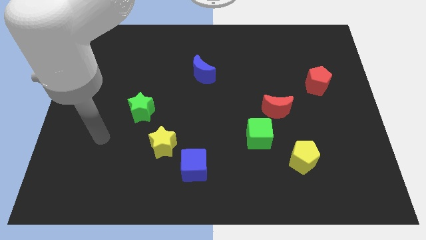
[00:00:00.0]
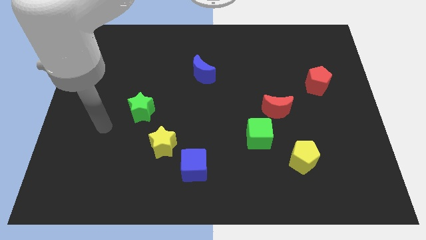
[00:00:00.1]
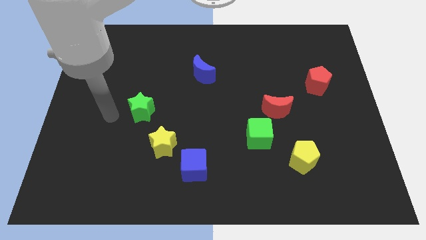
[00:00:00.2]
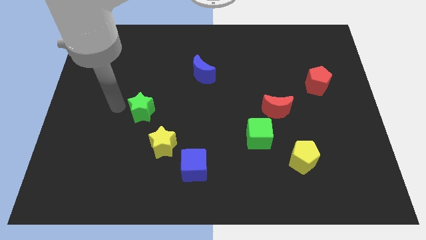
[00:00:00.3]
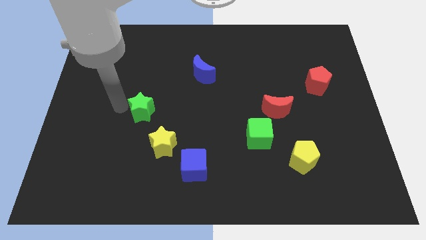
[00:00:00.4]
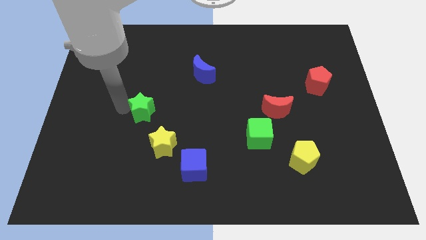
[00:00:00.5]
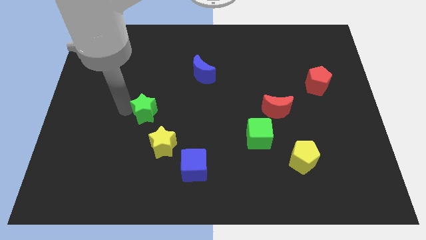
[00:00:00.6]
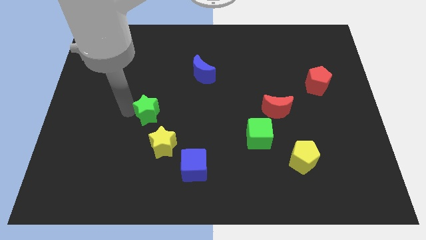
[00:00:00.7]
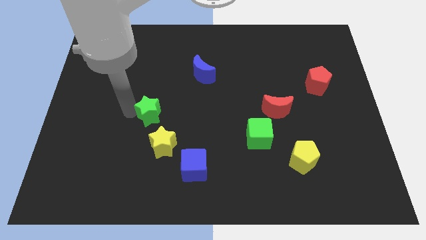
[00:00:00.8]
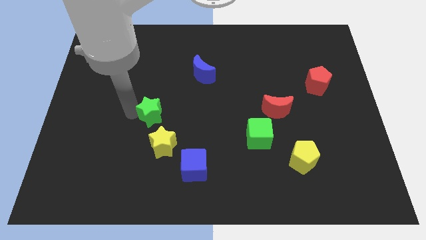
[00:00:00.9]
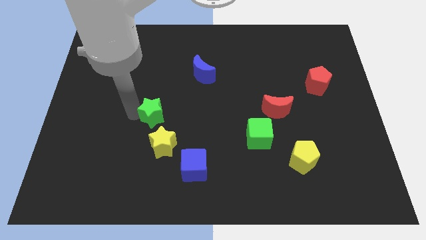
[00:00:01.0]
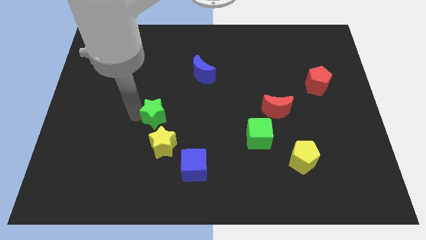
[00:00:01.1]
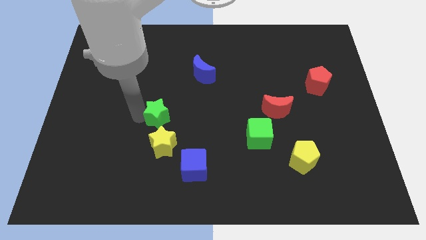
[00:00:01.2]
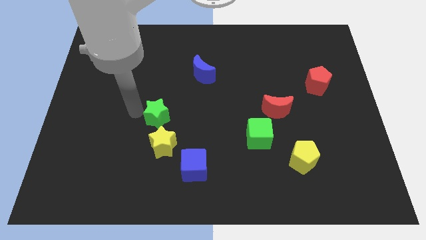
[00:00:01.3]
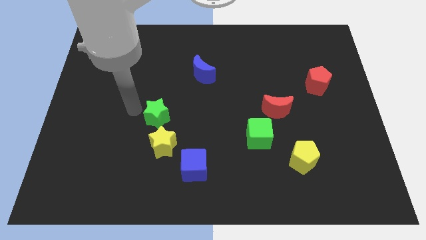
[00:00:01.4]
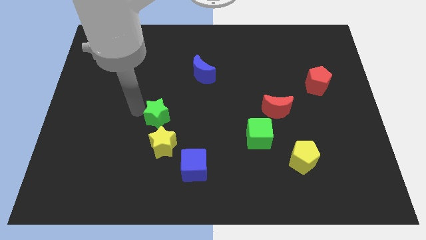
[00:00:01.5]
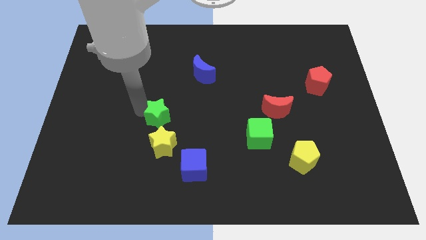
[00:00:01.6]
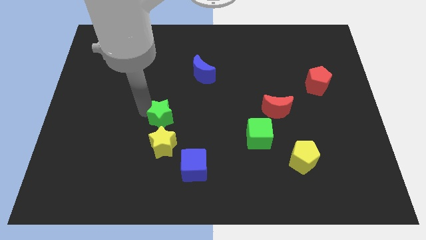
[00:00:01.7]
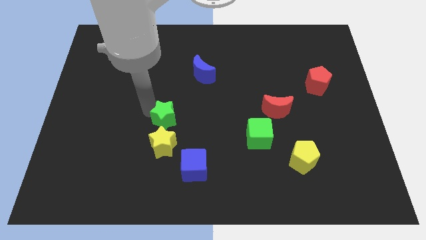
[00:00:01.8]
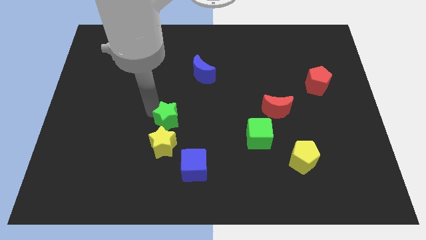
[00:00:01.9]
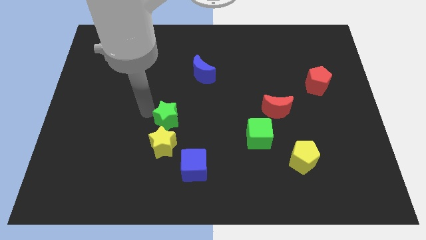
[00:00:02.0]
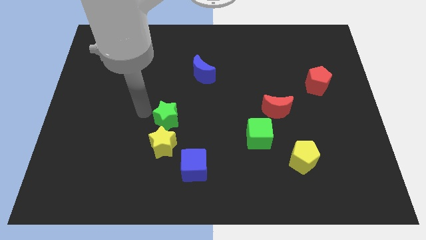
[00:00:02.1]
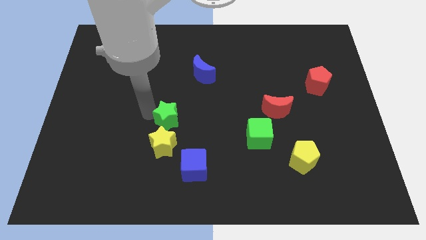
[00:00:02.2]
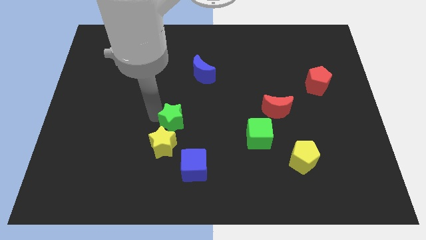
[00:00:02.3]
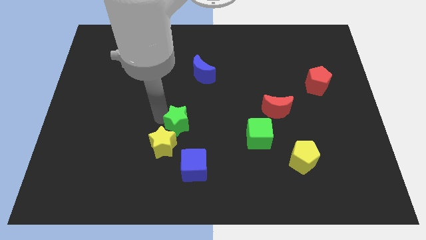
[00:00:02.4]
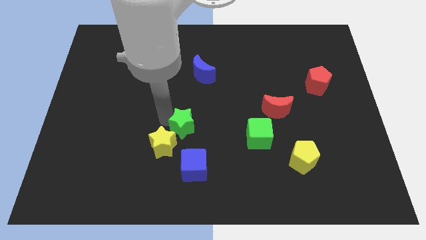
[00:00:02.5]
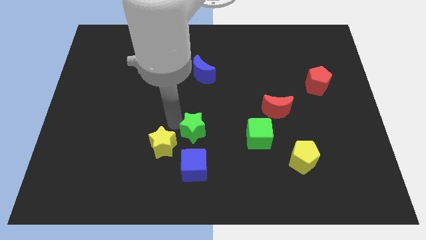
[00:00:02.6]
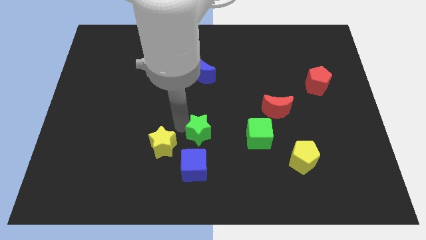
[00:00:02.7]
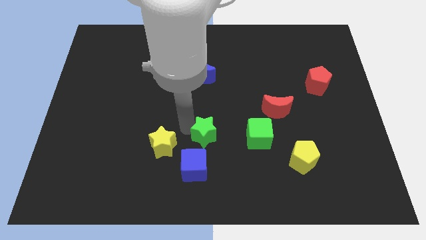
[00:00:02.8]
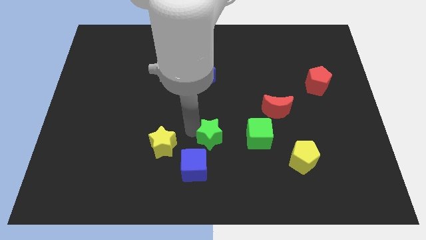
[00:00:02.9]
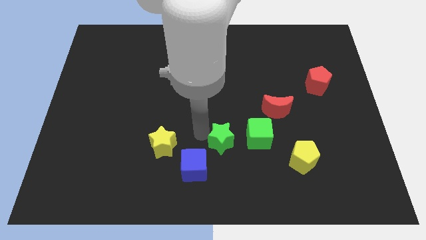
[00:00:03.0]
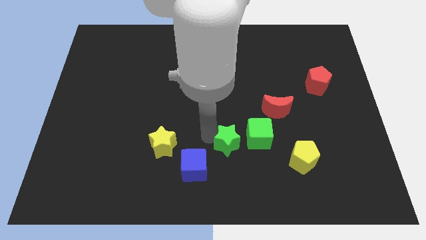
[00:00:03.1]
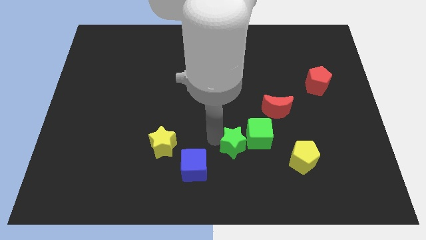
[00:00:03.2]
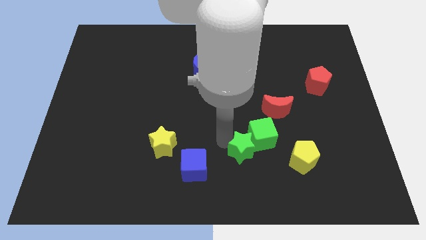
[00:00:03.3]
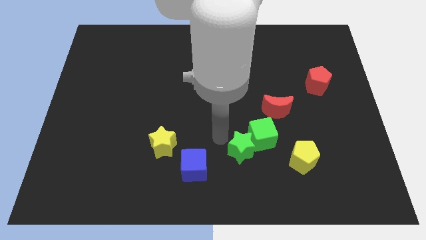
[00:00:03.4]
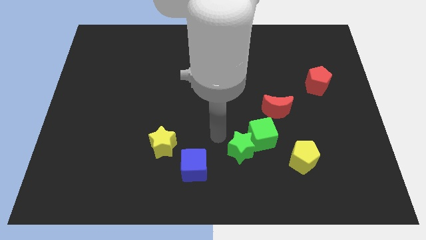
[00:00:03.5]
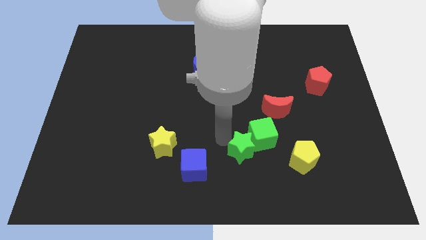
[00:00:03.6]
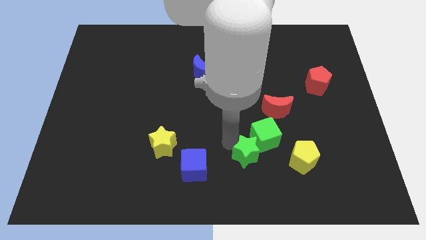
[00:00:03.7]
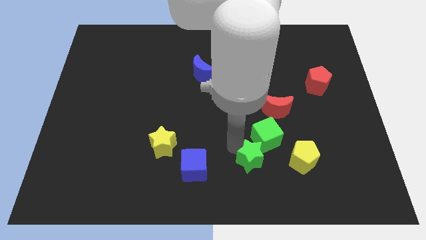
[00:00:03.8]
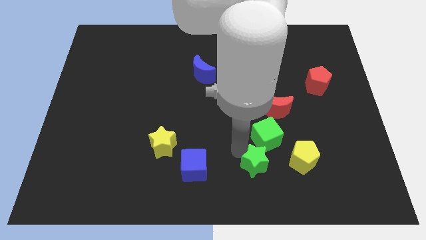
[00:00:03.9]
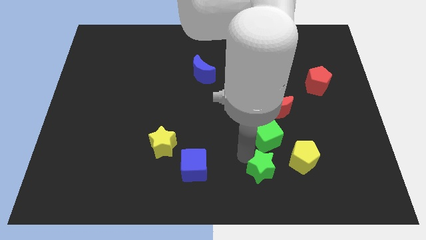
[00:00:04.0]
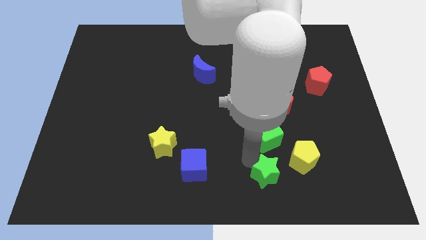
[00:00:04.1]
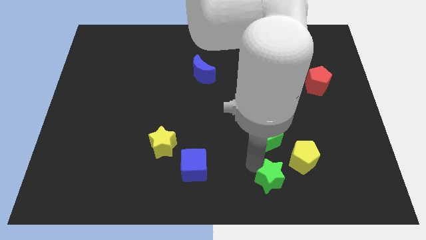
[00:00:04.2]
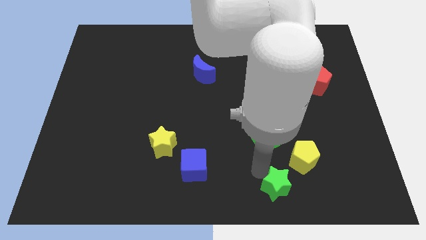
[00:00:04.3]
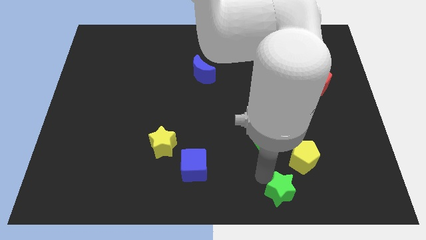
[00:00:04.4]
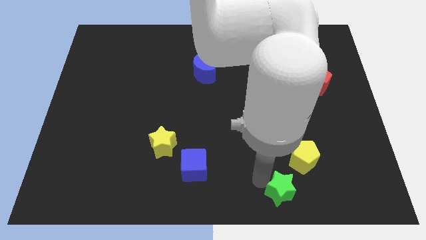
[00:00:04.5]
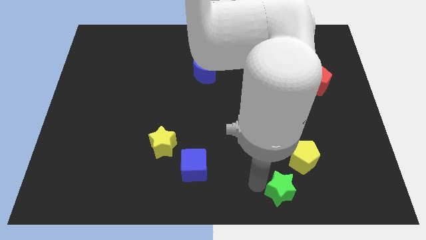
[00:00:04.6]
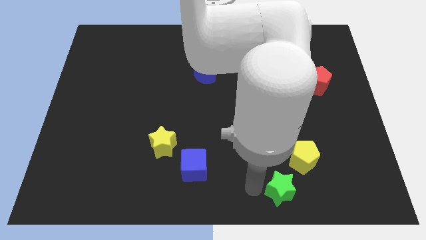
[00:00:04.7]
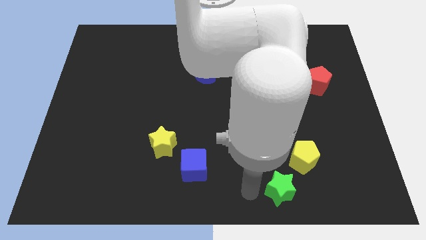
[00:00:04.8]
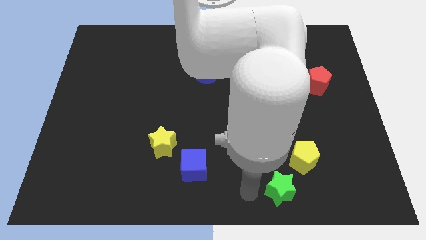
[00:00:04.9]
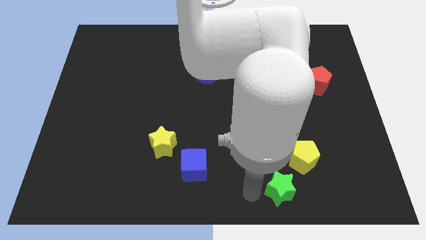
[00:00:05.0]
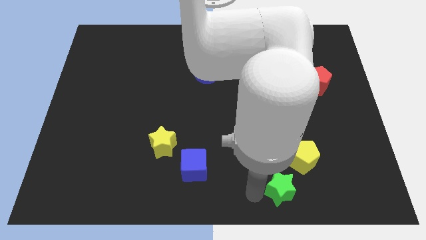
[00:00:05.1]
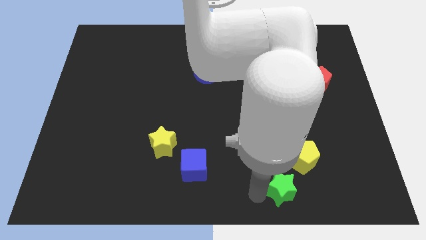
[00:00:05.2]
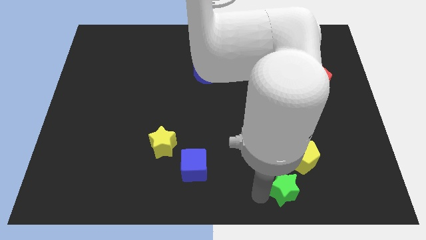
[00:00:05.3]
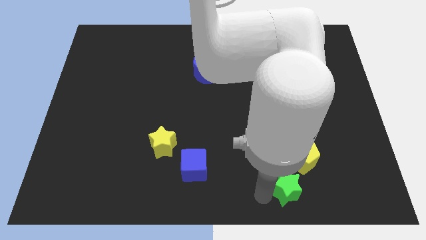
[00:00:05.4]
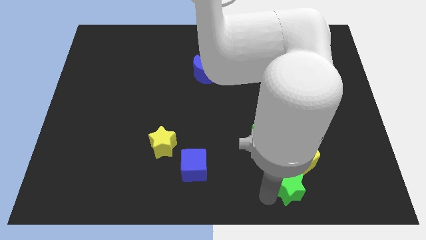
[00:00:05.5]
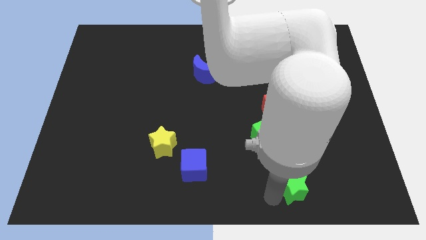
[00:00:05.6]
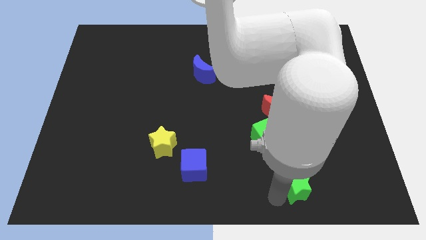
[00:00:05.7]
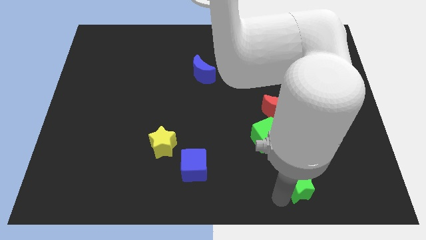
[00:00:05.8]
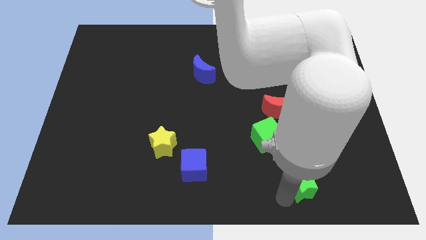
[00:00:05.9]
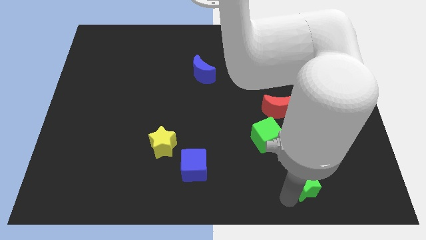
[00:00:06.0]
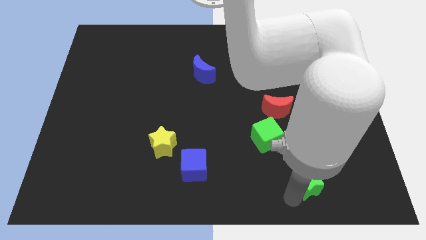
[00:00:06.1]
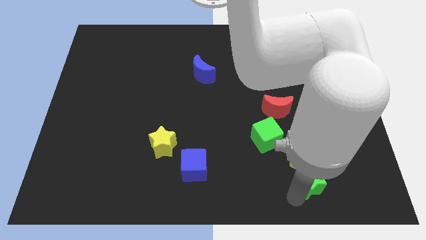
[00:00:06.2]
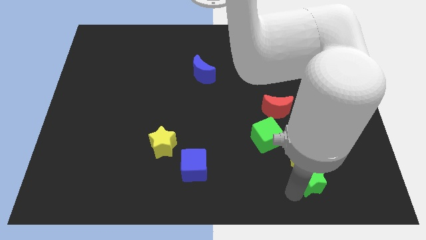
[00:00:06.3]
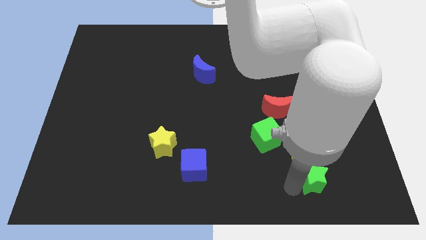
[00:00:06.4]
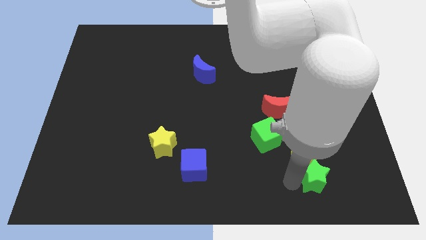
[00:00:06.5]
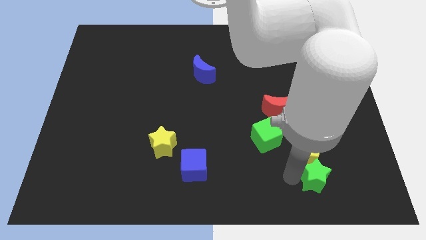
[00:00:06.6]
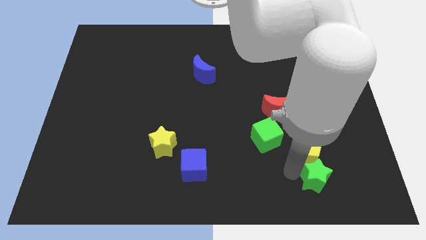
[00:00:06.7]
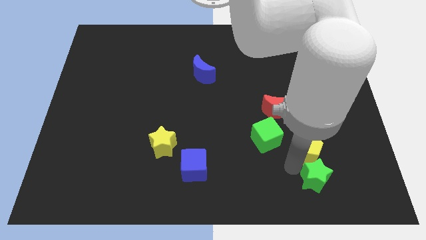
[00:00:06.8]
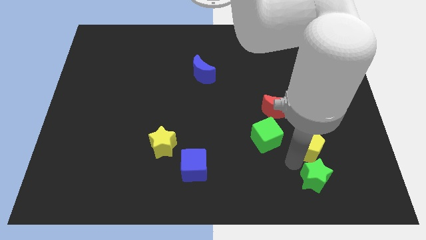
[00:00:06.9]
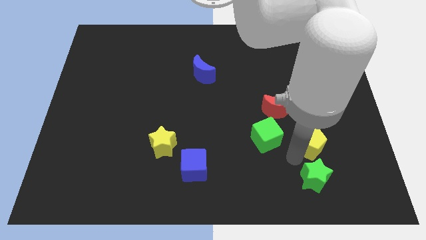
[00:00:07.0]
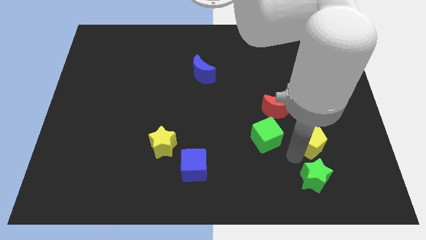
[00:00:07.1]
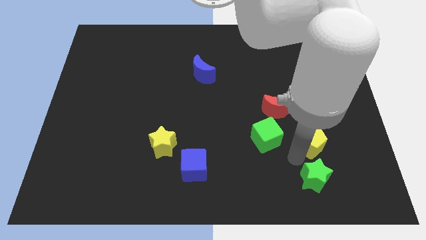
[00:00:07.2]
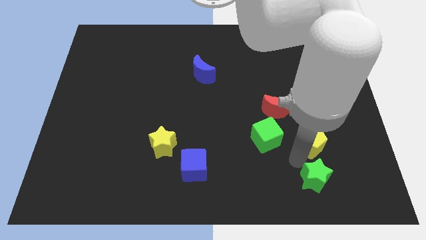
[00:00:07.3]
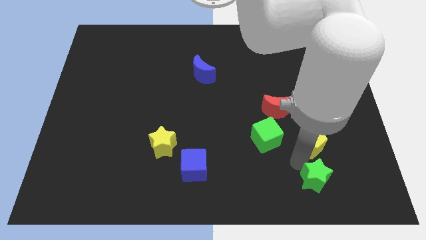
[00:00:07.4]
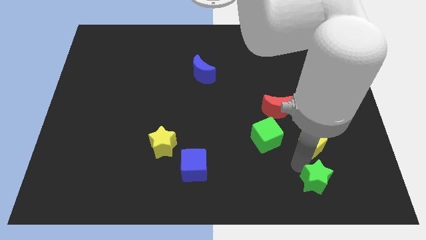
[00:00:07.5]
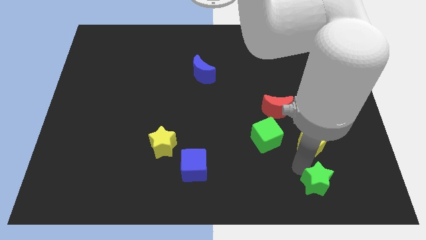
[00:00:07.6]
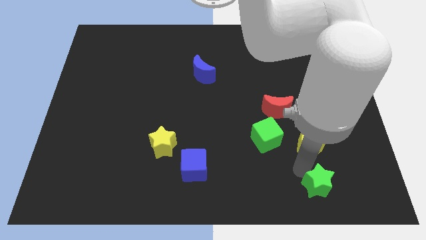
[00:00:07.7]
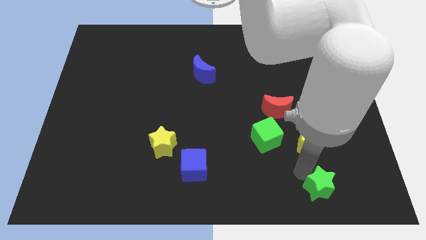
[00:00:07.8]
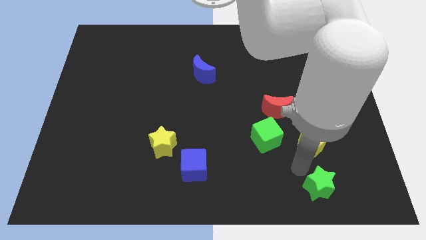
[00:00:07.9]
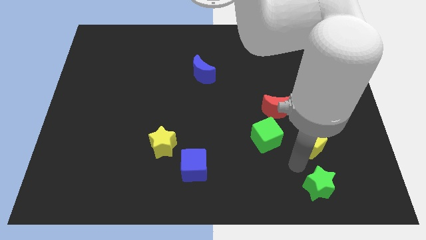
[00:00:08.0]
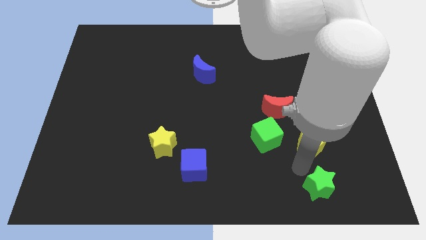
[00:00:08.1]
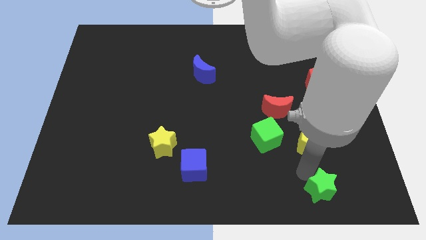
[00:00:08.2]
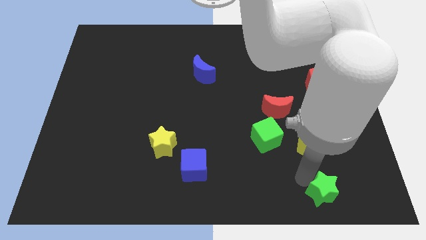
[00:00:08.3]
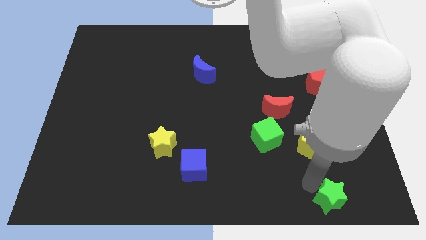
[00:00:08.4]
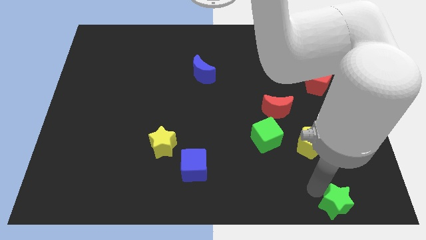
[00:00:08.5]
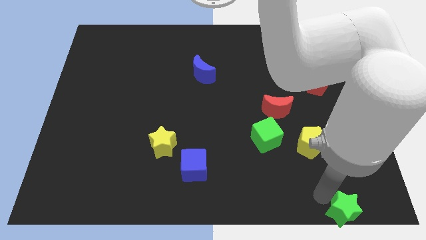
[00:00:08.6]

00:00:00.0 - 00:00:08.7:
put the green star to the bottom right corner
